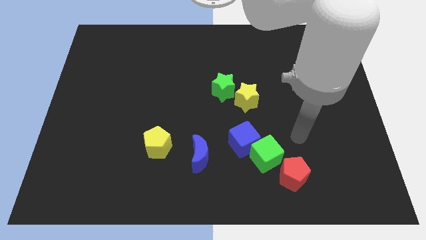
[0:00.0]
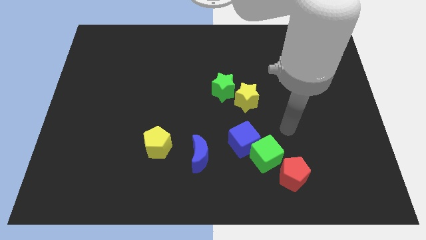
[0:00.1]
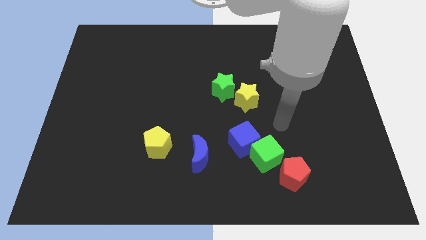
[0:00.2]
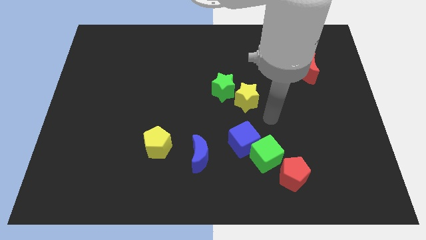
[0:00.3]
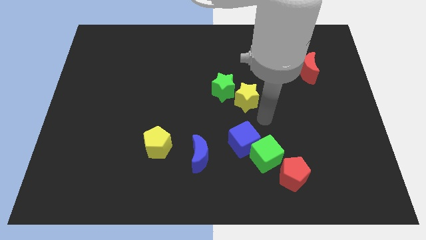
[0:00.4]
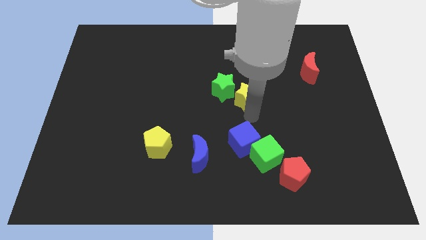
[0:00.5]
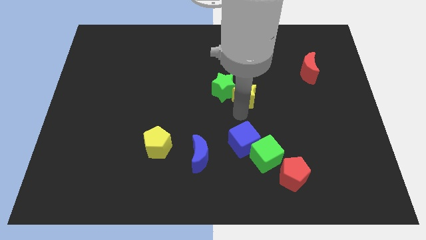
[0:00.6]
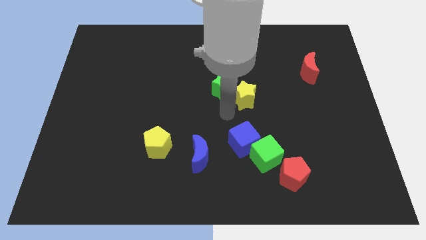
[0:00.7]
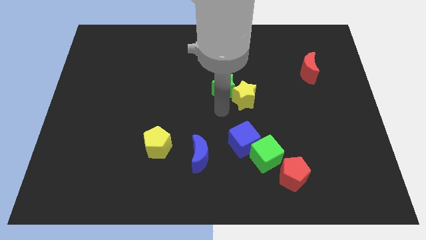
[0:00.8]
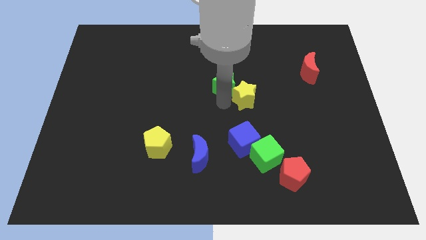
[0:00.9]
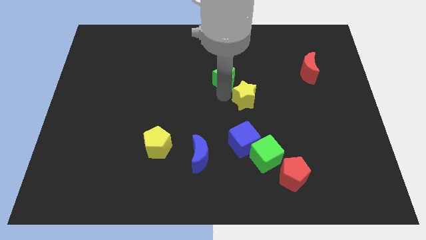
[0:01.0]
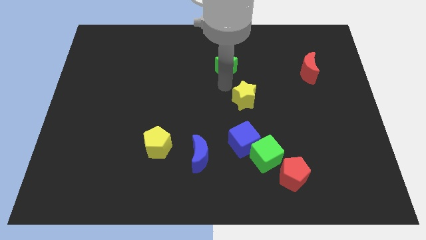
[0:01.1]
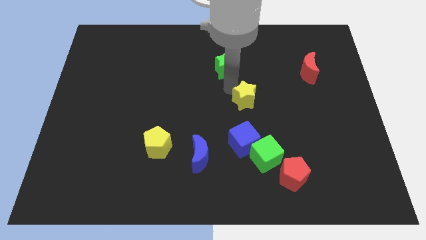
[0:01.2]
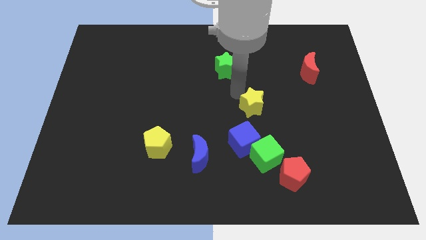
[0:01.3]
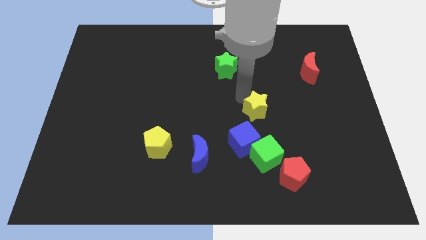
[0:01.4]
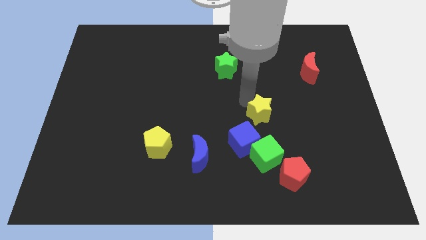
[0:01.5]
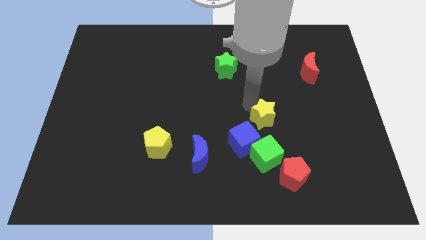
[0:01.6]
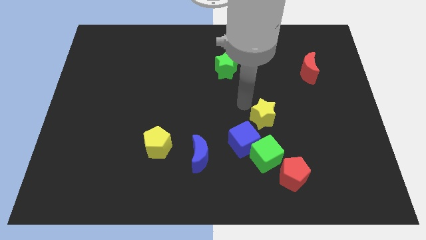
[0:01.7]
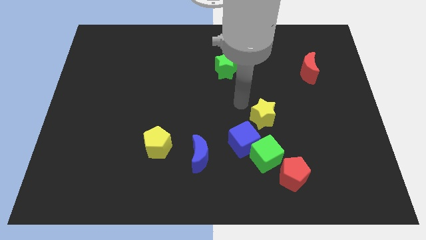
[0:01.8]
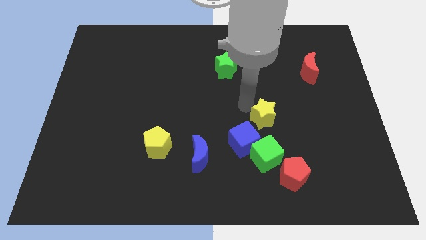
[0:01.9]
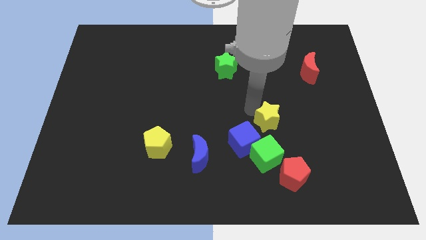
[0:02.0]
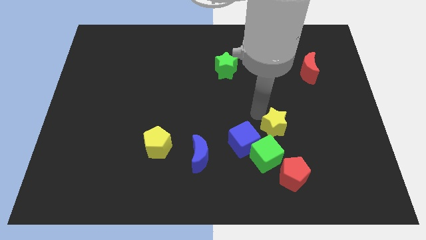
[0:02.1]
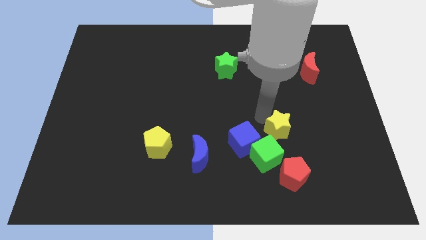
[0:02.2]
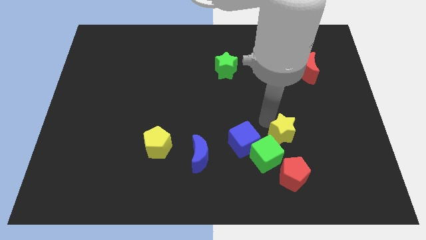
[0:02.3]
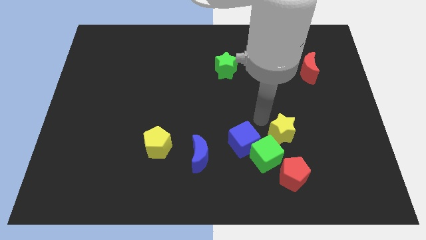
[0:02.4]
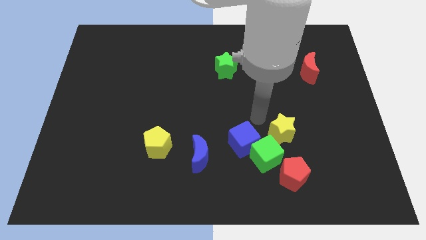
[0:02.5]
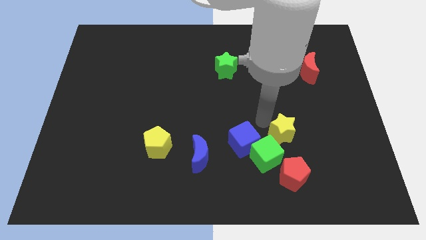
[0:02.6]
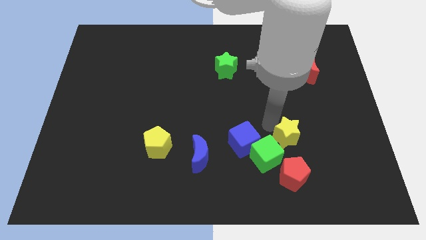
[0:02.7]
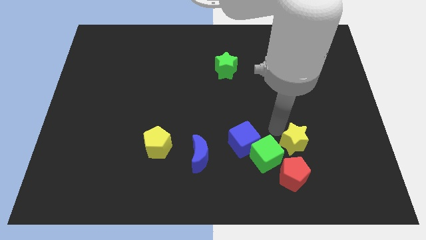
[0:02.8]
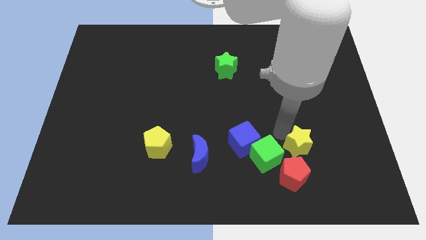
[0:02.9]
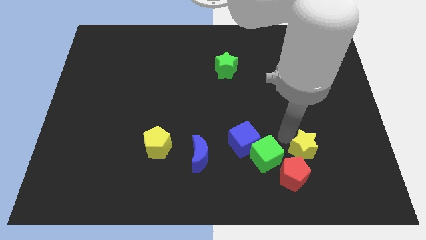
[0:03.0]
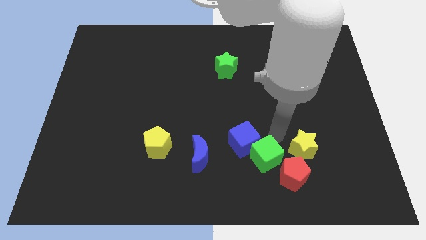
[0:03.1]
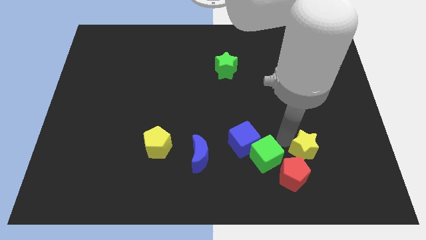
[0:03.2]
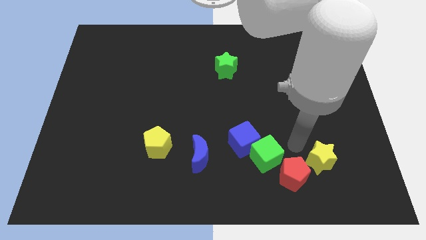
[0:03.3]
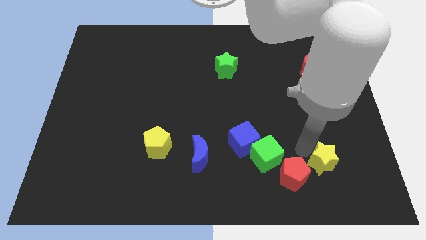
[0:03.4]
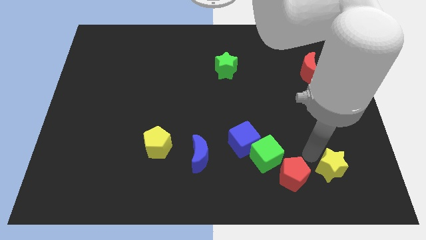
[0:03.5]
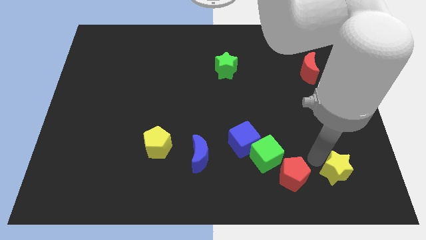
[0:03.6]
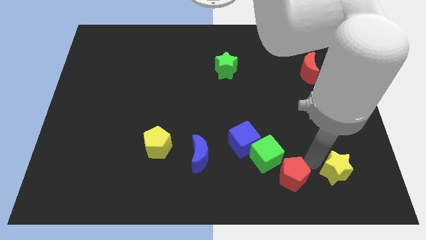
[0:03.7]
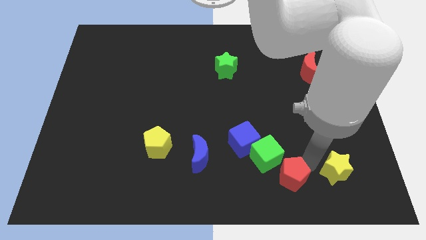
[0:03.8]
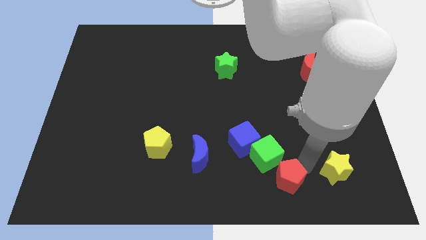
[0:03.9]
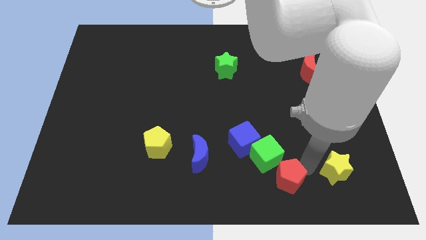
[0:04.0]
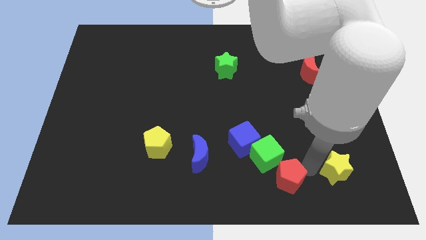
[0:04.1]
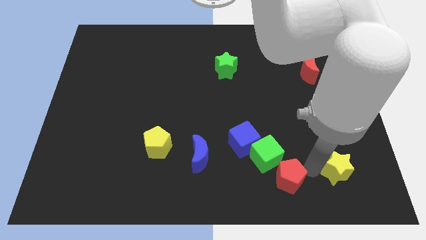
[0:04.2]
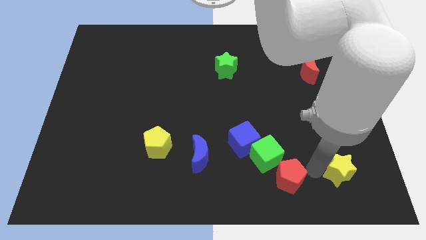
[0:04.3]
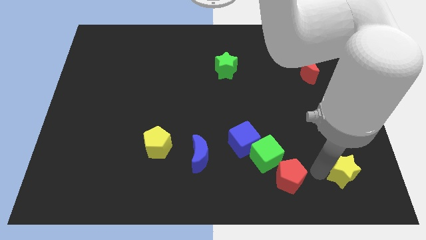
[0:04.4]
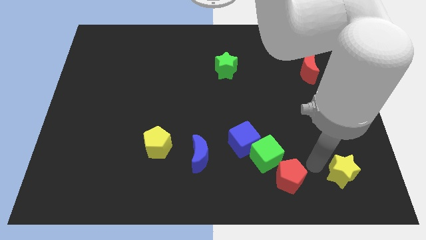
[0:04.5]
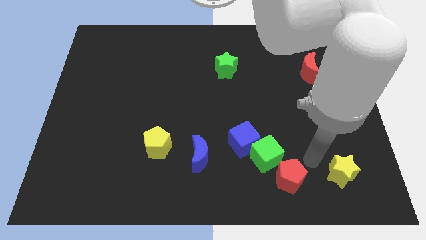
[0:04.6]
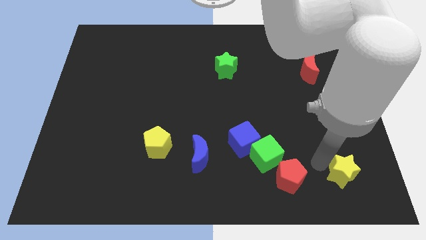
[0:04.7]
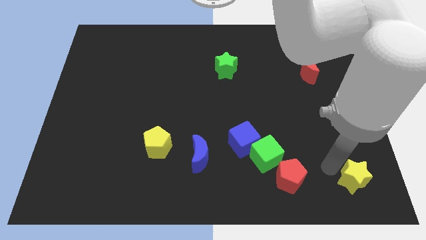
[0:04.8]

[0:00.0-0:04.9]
slide the yellow star to the lower right corner

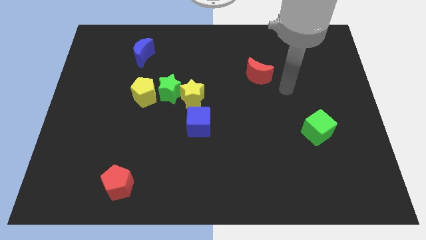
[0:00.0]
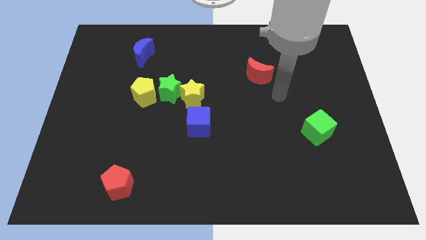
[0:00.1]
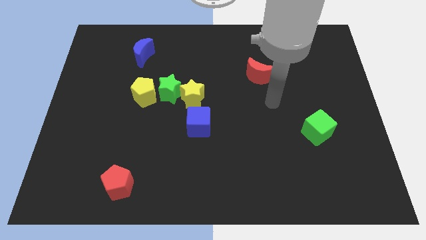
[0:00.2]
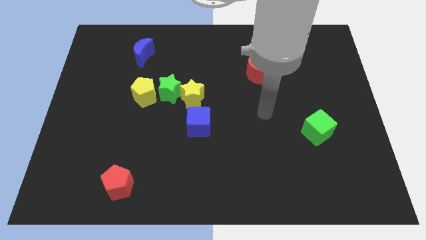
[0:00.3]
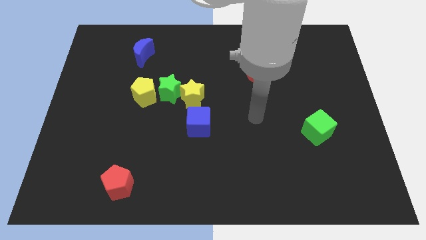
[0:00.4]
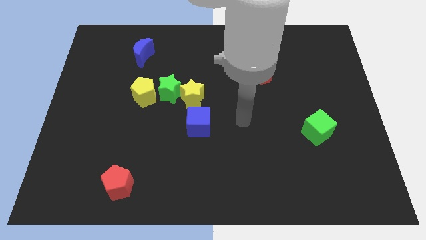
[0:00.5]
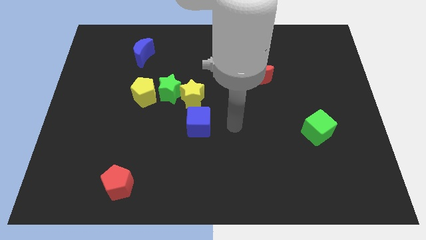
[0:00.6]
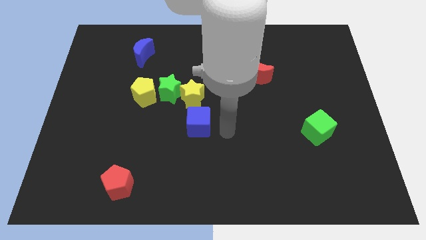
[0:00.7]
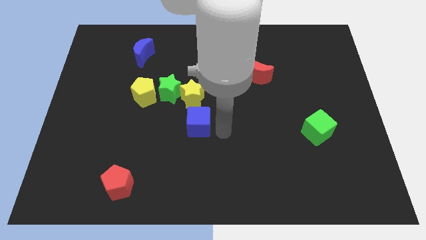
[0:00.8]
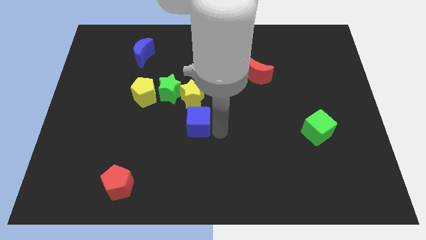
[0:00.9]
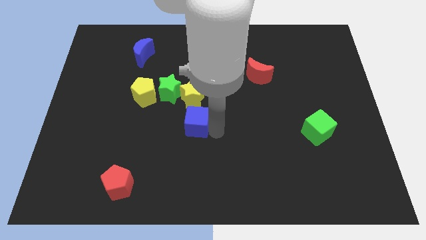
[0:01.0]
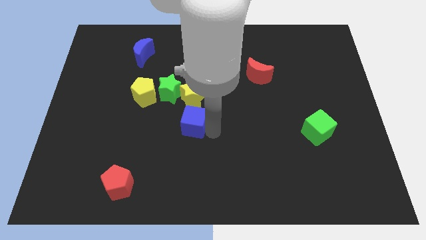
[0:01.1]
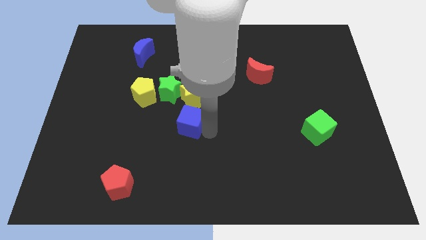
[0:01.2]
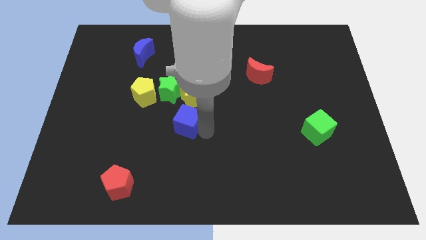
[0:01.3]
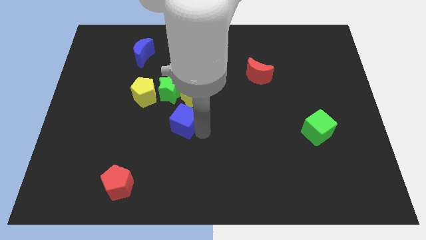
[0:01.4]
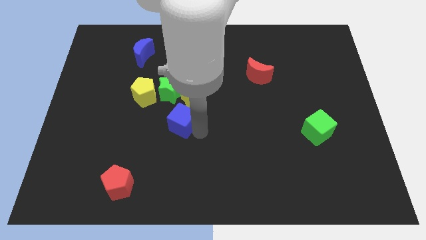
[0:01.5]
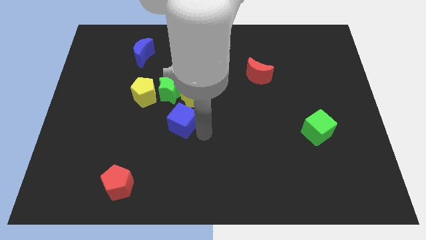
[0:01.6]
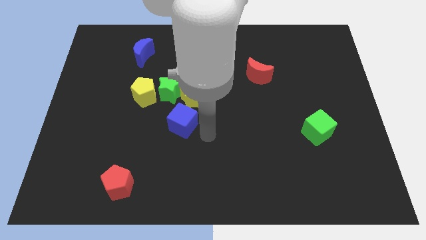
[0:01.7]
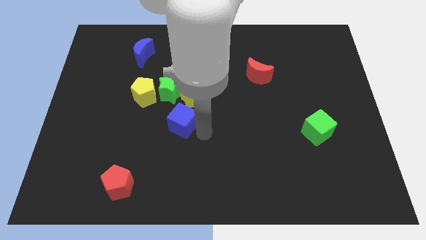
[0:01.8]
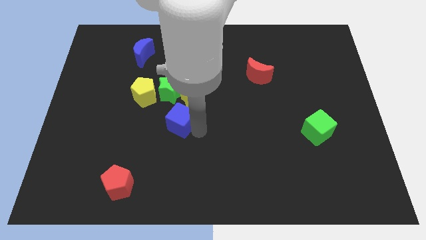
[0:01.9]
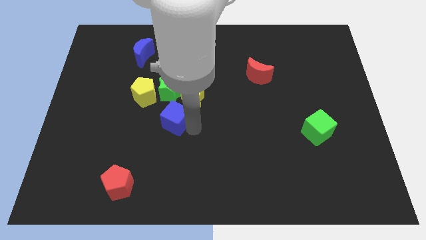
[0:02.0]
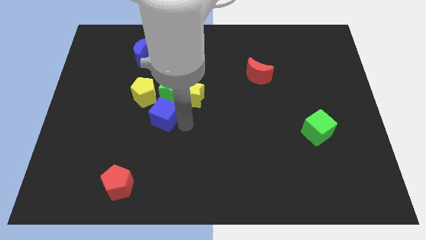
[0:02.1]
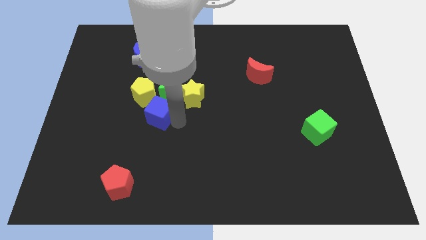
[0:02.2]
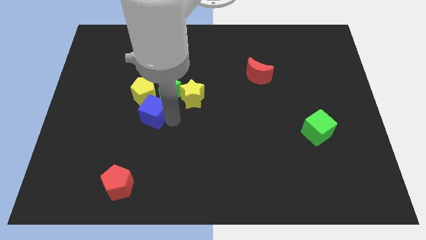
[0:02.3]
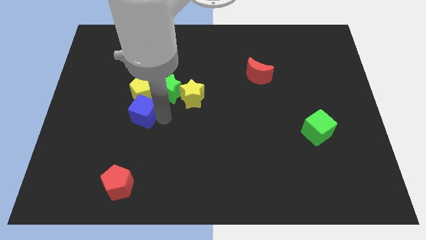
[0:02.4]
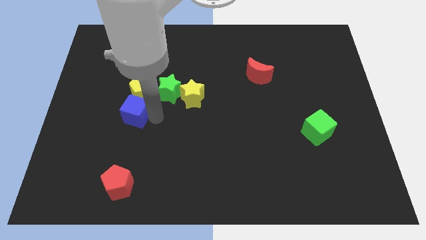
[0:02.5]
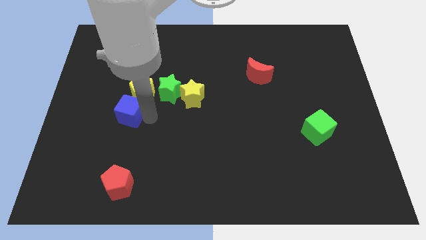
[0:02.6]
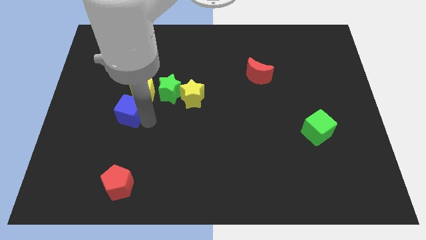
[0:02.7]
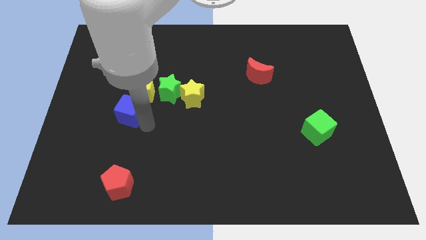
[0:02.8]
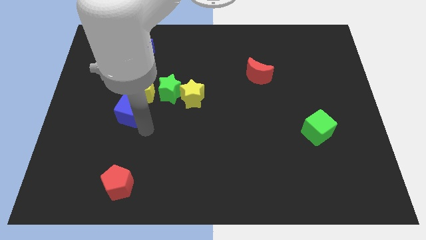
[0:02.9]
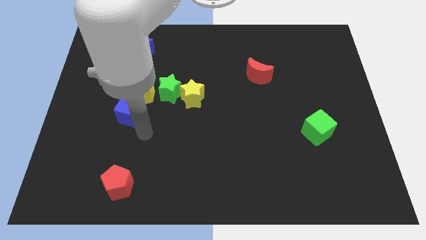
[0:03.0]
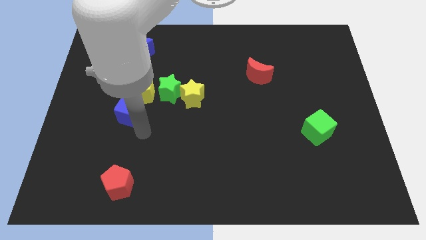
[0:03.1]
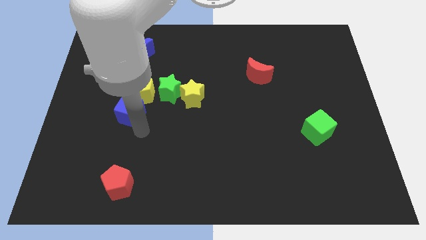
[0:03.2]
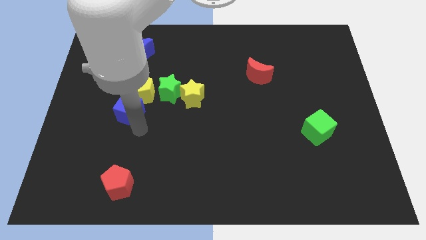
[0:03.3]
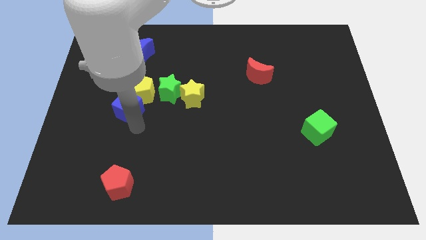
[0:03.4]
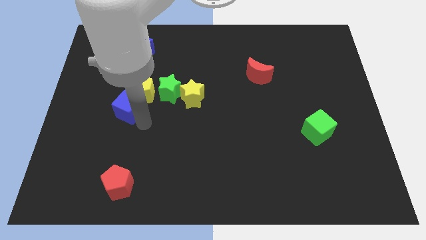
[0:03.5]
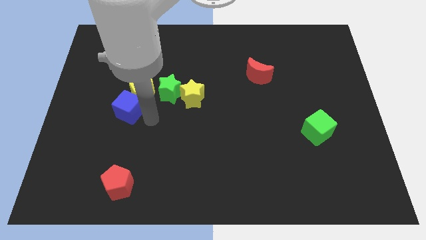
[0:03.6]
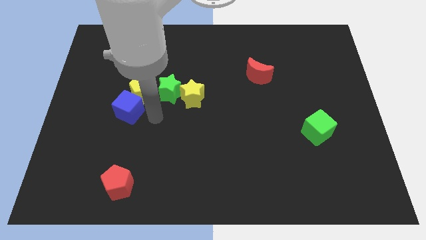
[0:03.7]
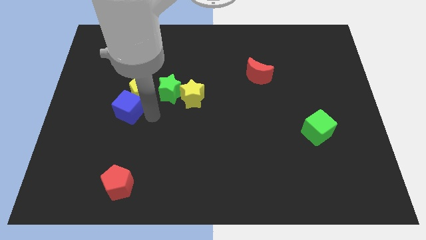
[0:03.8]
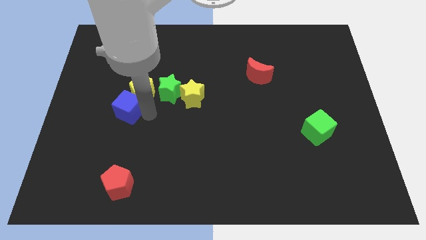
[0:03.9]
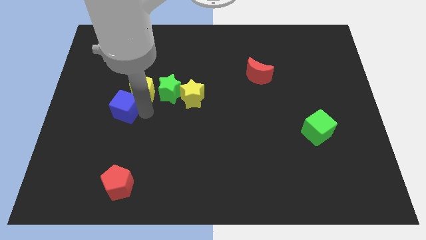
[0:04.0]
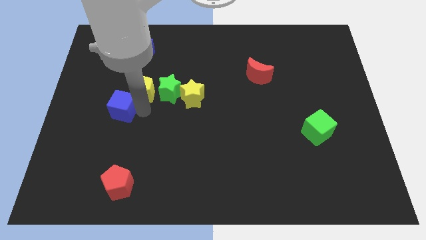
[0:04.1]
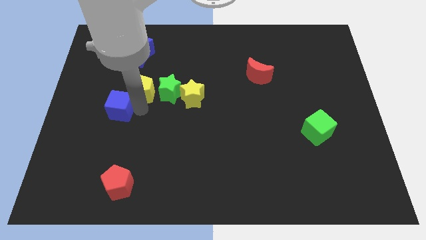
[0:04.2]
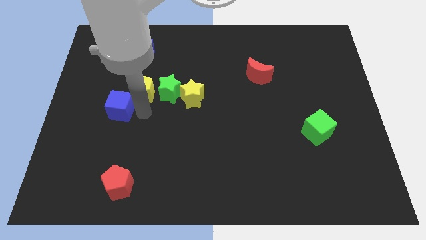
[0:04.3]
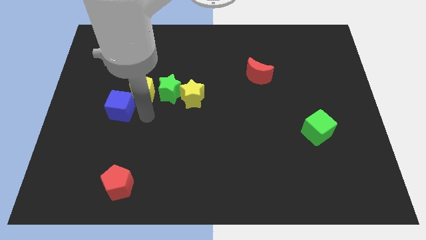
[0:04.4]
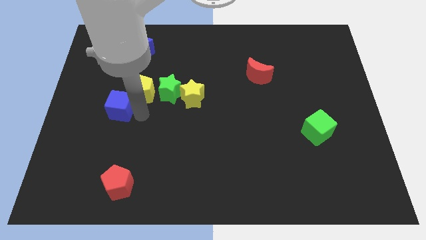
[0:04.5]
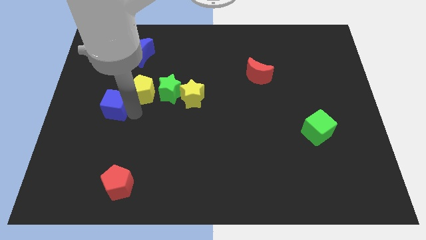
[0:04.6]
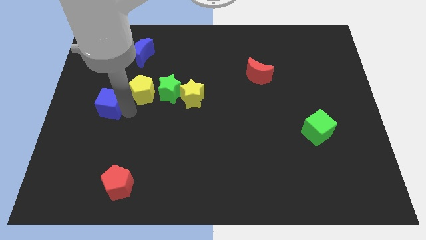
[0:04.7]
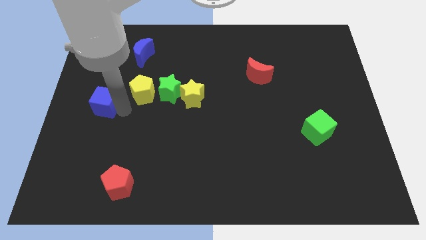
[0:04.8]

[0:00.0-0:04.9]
move the blue cube to the left side of the board
